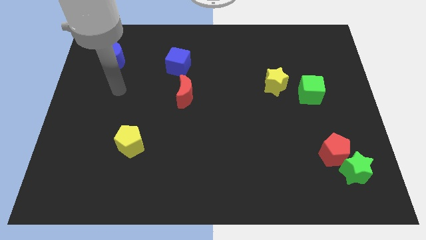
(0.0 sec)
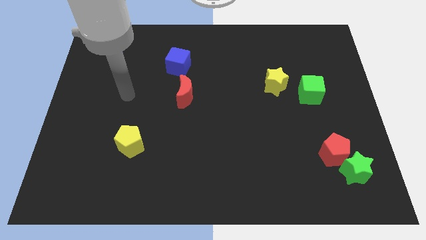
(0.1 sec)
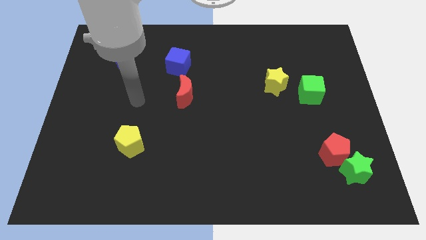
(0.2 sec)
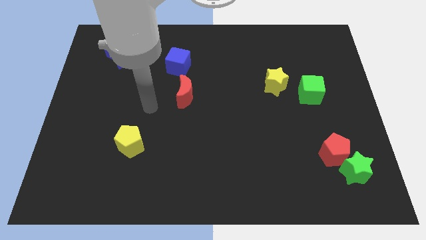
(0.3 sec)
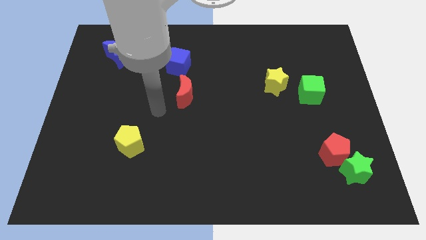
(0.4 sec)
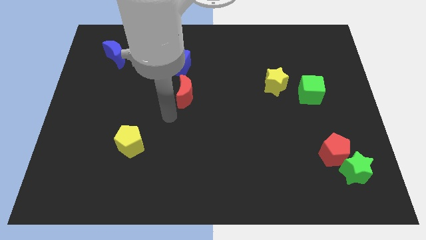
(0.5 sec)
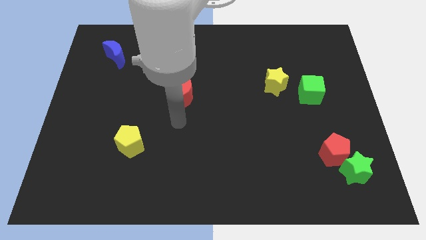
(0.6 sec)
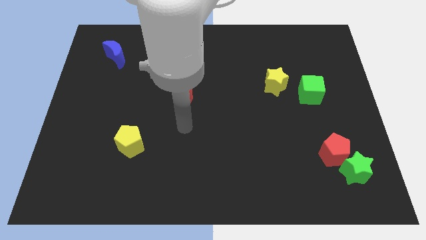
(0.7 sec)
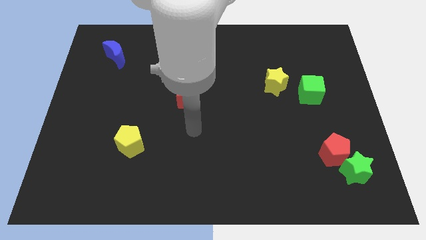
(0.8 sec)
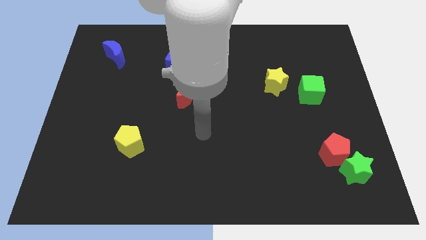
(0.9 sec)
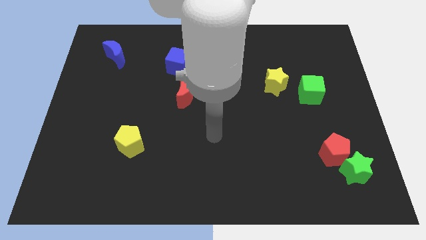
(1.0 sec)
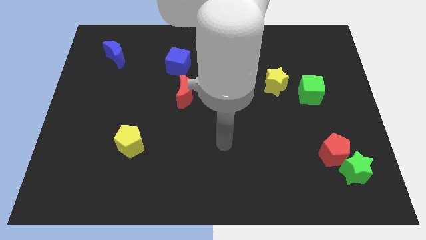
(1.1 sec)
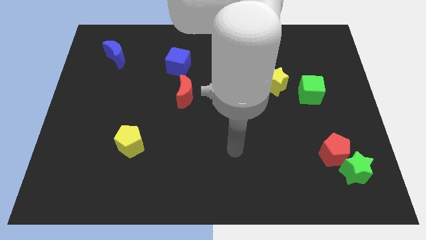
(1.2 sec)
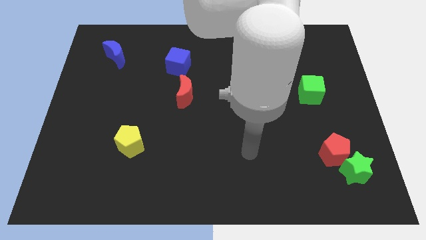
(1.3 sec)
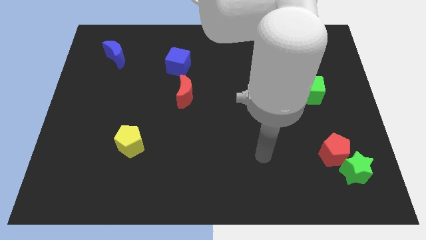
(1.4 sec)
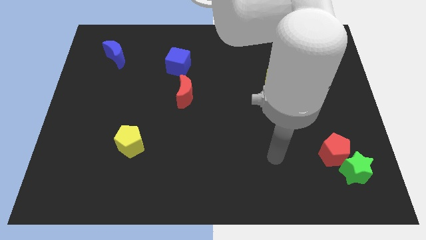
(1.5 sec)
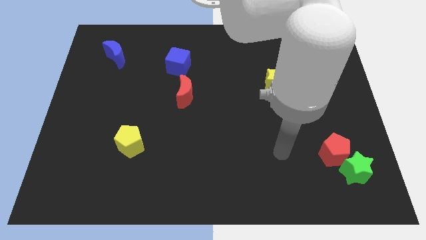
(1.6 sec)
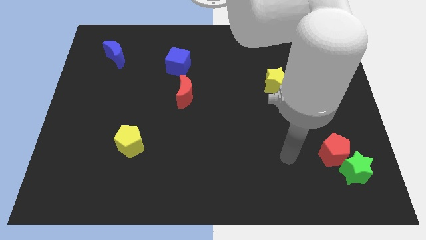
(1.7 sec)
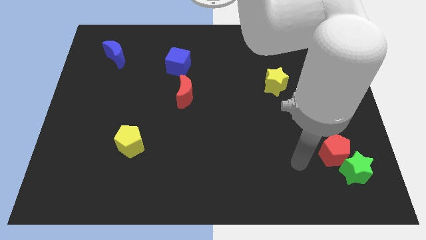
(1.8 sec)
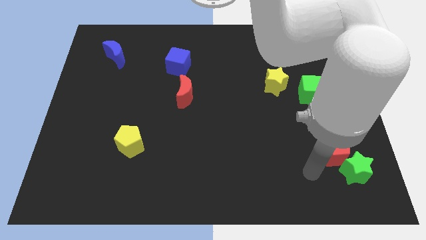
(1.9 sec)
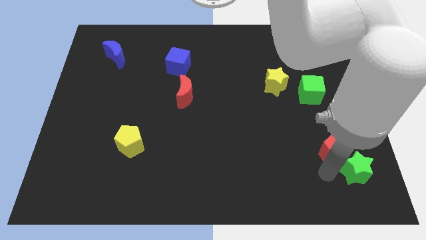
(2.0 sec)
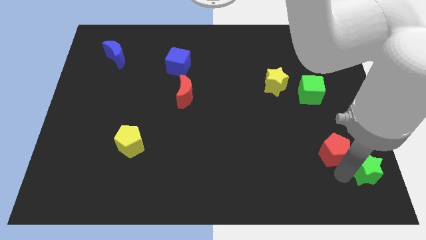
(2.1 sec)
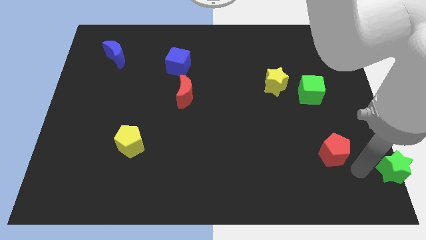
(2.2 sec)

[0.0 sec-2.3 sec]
pull the red pentagon apart from the green star

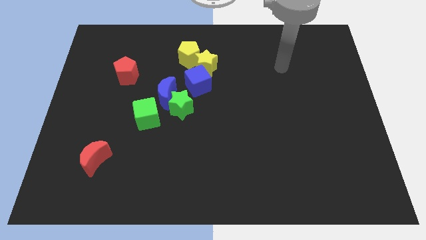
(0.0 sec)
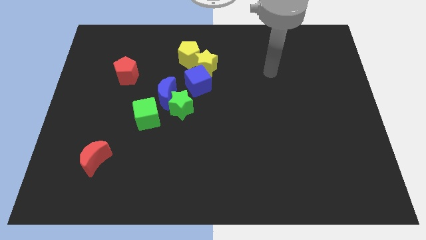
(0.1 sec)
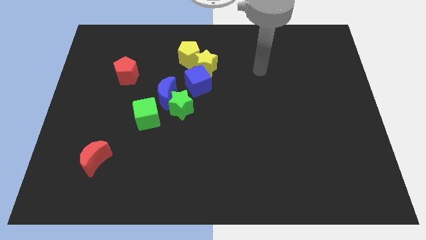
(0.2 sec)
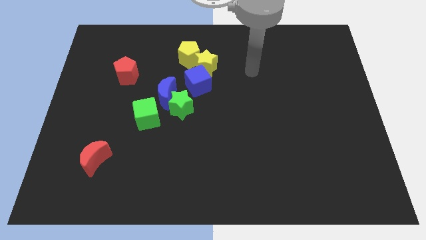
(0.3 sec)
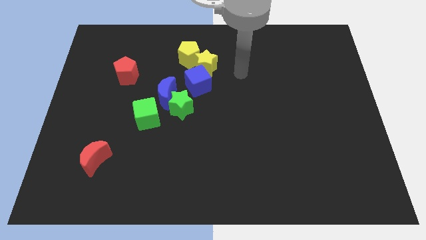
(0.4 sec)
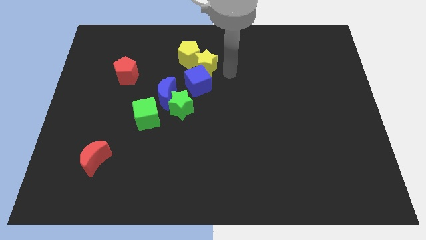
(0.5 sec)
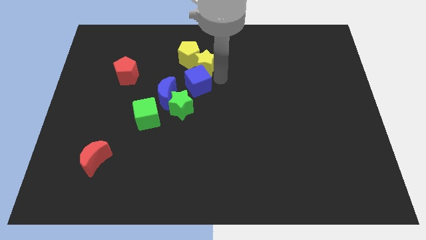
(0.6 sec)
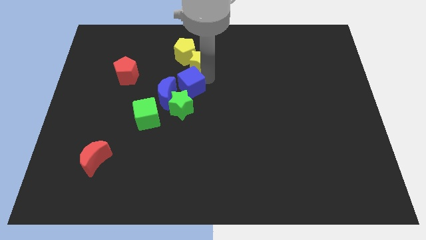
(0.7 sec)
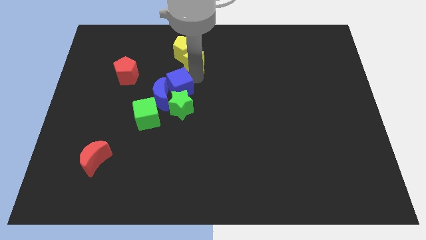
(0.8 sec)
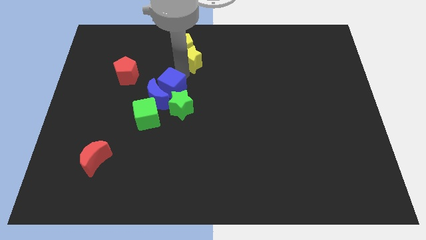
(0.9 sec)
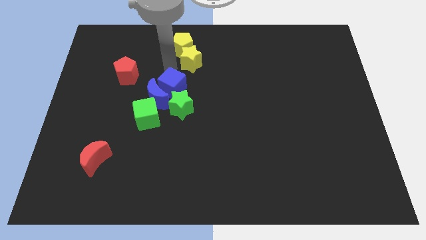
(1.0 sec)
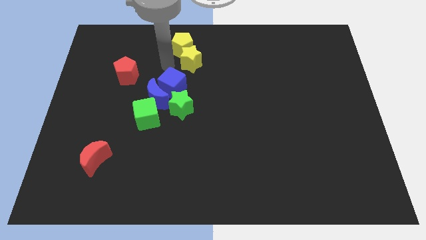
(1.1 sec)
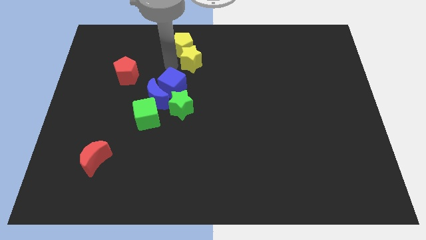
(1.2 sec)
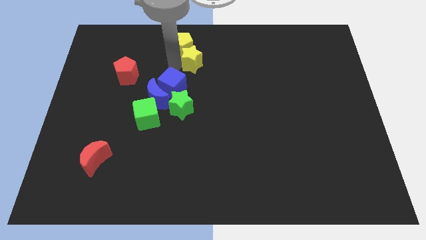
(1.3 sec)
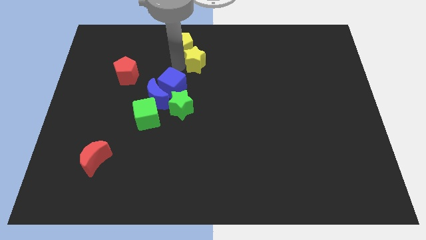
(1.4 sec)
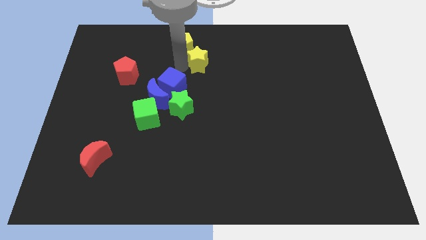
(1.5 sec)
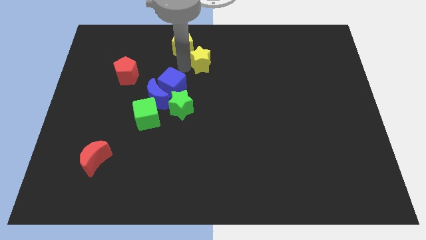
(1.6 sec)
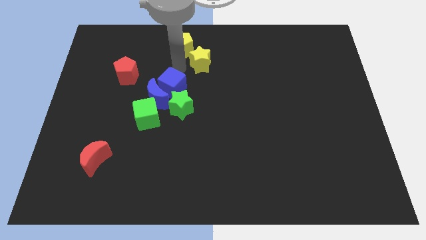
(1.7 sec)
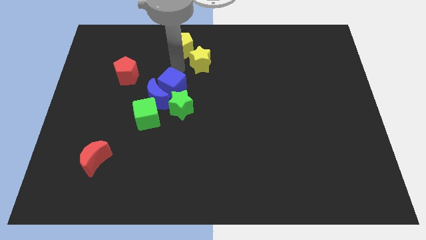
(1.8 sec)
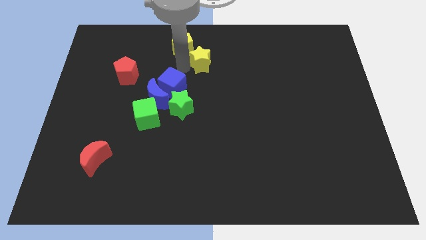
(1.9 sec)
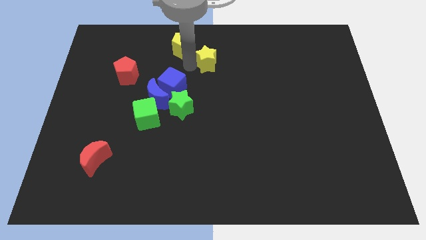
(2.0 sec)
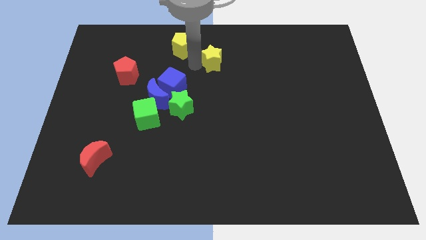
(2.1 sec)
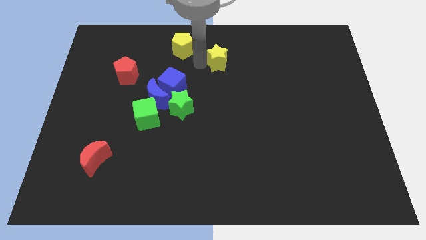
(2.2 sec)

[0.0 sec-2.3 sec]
move the yellow star away from the yellow pentagon and blue cube

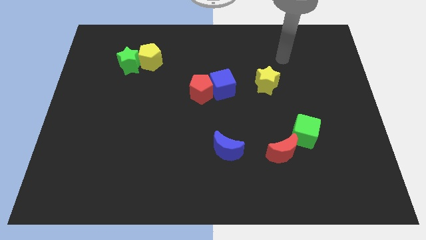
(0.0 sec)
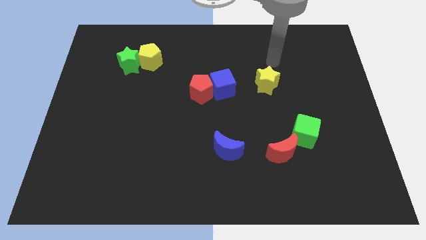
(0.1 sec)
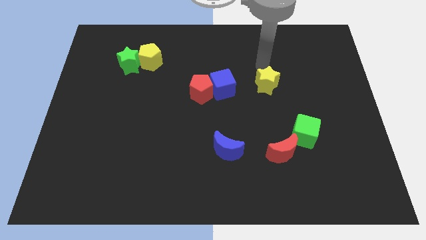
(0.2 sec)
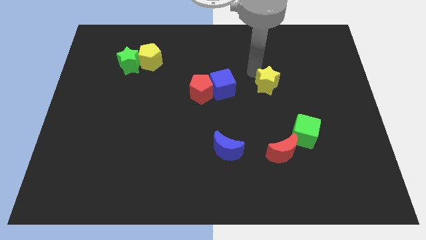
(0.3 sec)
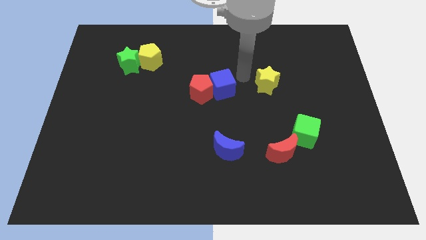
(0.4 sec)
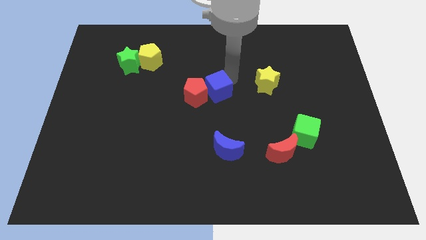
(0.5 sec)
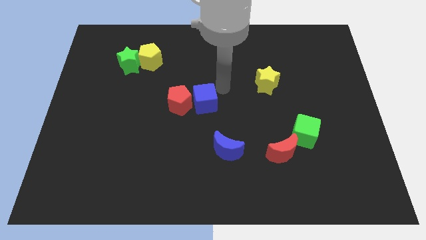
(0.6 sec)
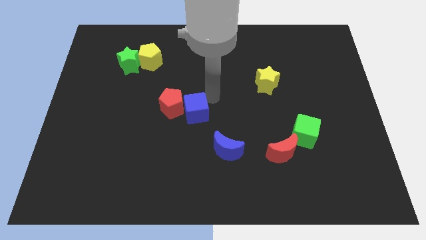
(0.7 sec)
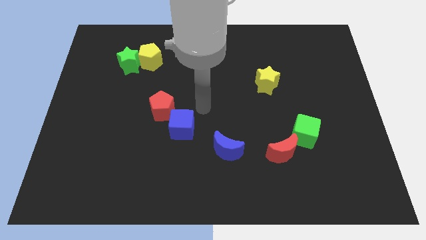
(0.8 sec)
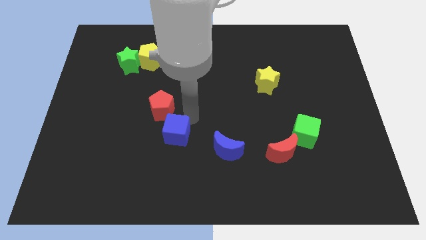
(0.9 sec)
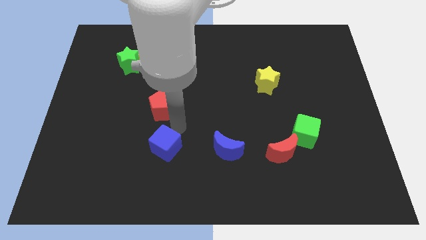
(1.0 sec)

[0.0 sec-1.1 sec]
move the red pentagon away from the blue cube

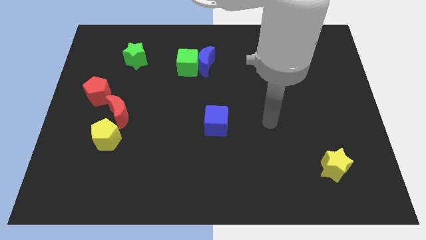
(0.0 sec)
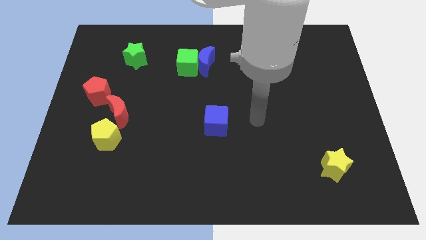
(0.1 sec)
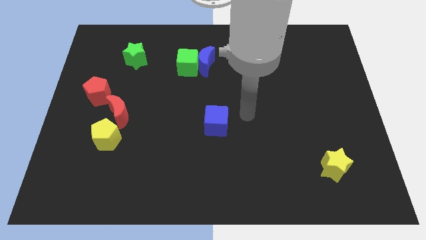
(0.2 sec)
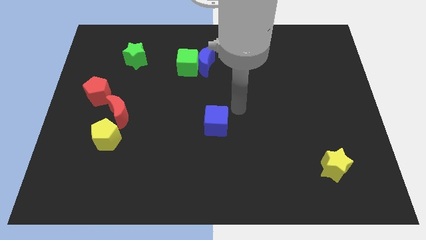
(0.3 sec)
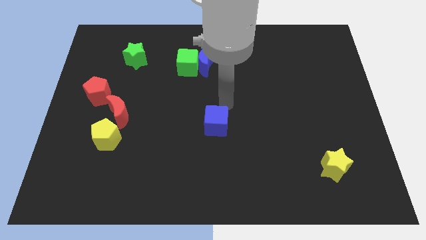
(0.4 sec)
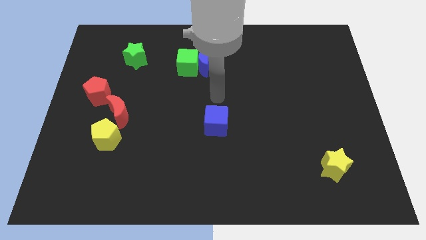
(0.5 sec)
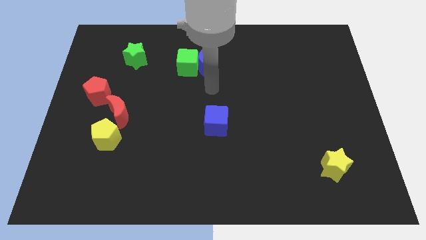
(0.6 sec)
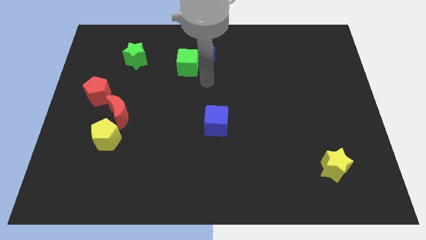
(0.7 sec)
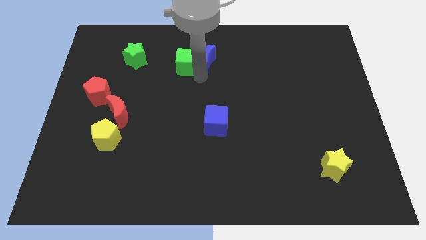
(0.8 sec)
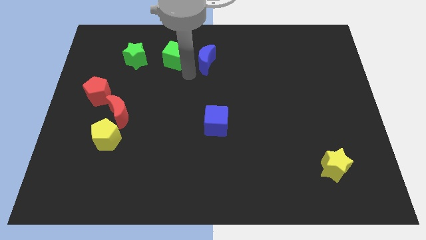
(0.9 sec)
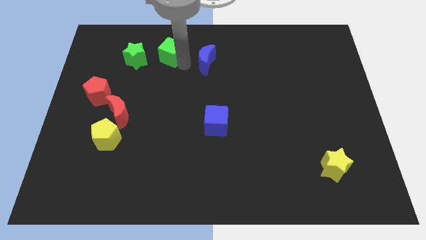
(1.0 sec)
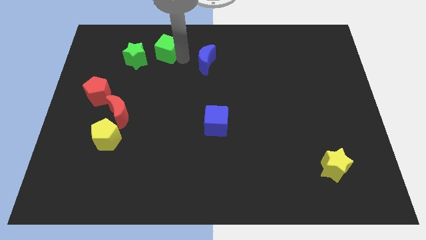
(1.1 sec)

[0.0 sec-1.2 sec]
separate the blue moon from the green cube

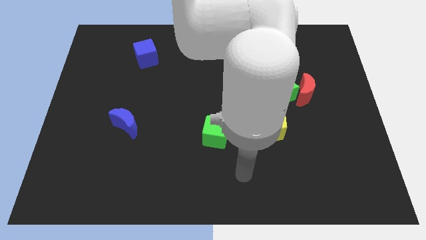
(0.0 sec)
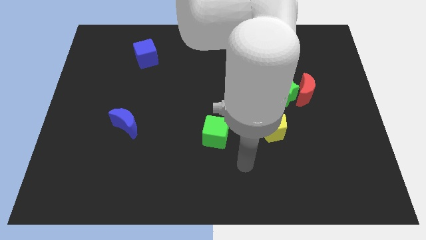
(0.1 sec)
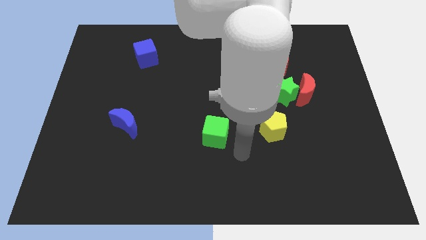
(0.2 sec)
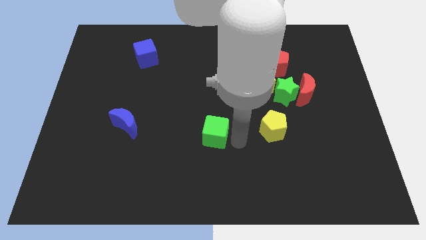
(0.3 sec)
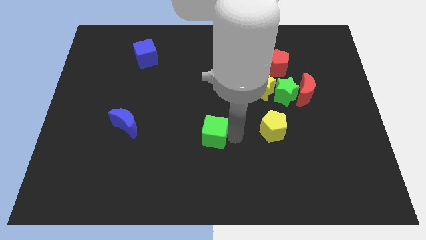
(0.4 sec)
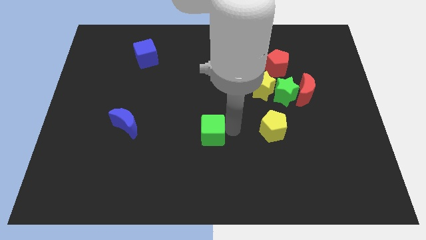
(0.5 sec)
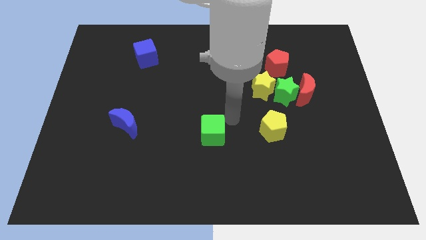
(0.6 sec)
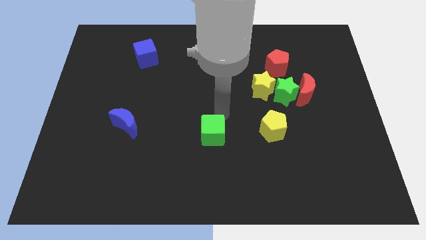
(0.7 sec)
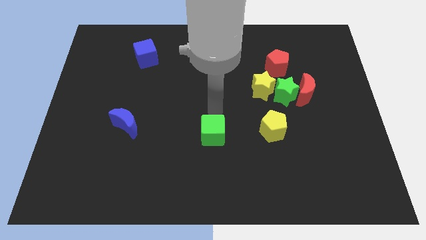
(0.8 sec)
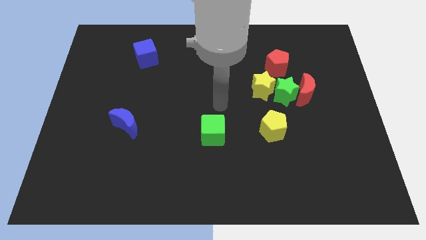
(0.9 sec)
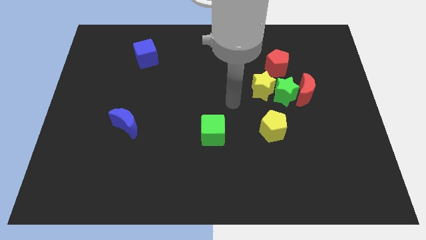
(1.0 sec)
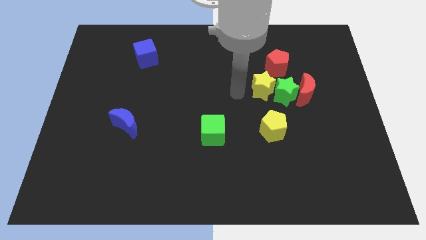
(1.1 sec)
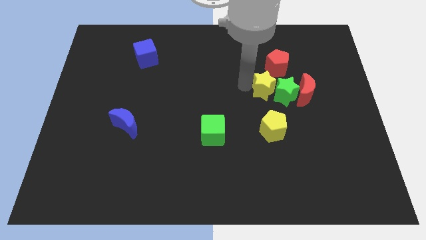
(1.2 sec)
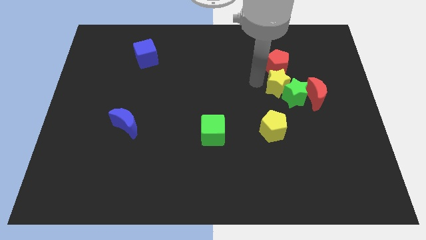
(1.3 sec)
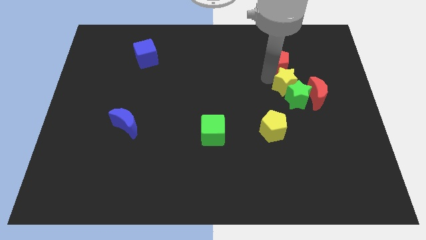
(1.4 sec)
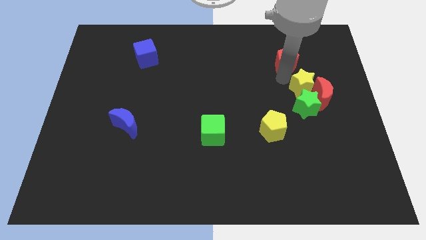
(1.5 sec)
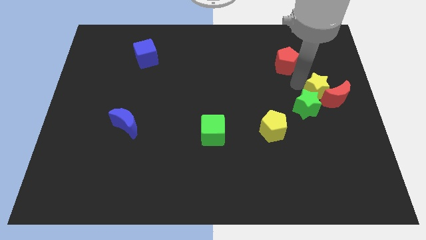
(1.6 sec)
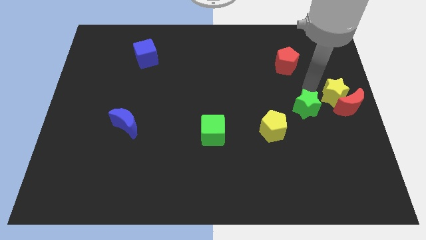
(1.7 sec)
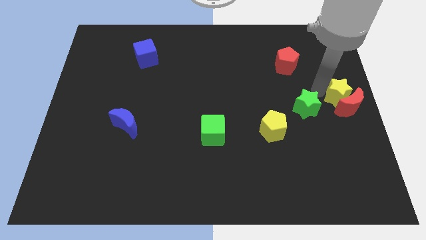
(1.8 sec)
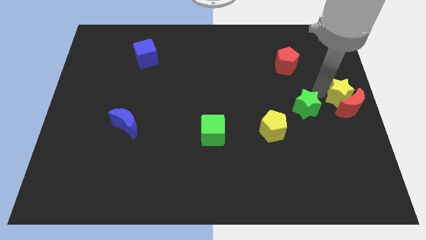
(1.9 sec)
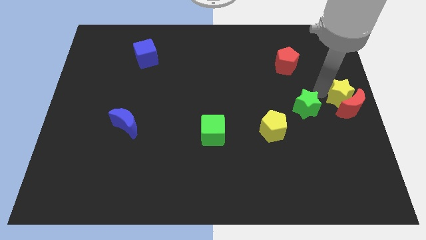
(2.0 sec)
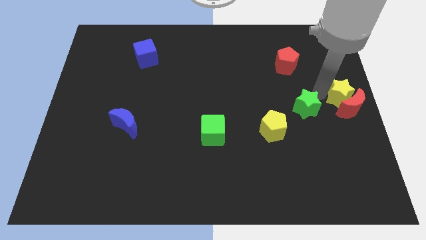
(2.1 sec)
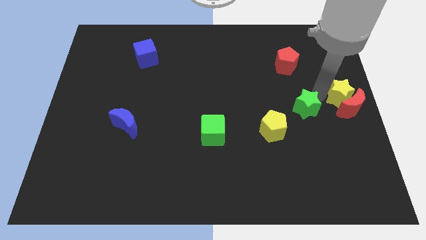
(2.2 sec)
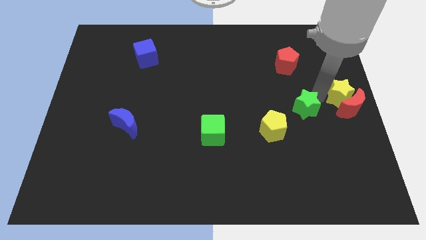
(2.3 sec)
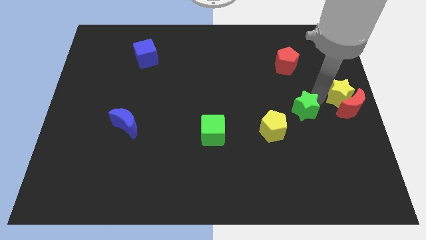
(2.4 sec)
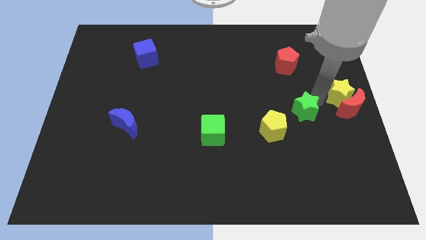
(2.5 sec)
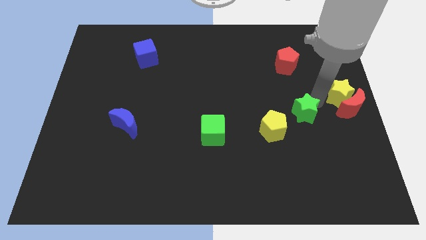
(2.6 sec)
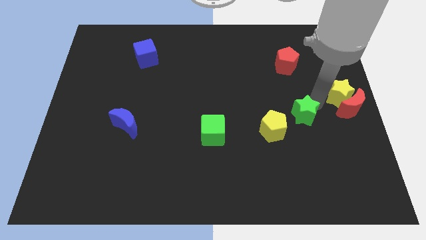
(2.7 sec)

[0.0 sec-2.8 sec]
pull the green star apart from the group of blocks
